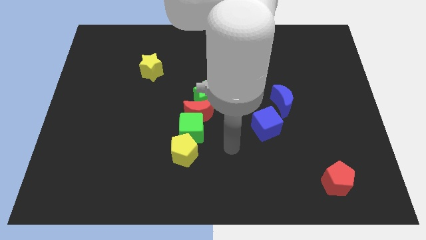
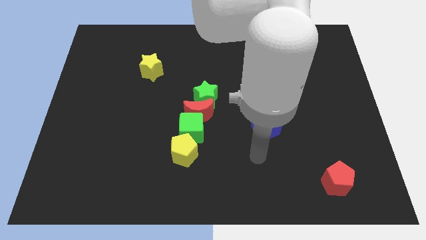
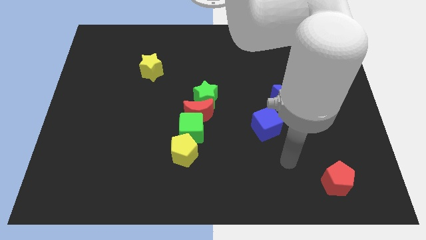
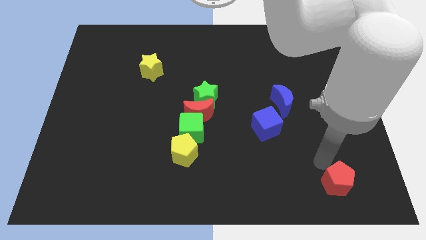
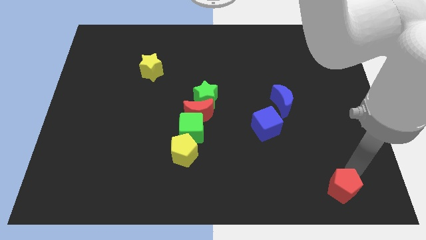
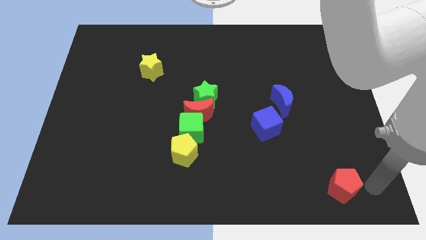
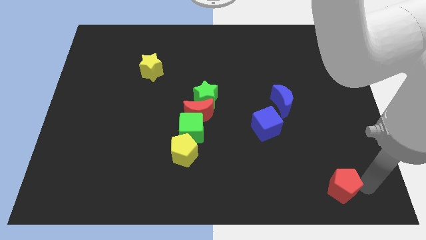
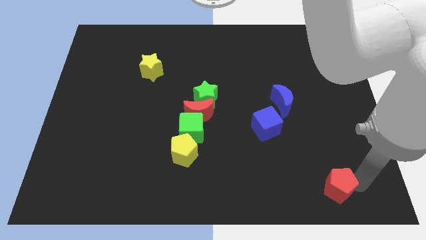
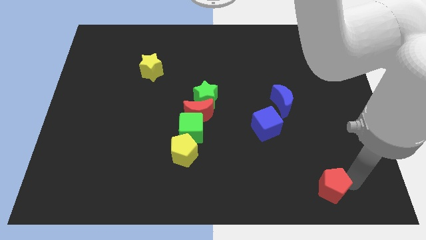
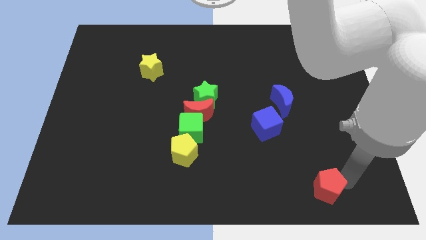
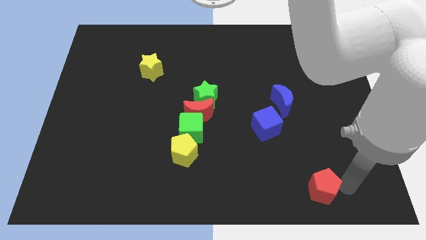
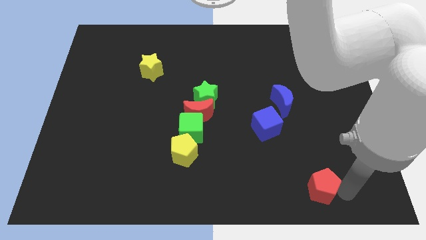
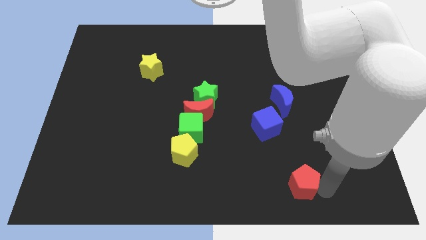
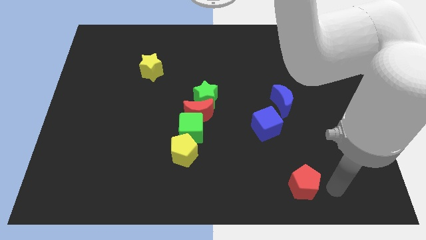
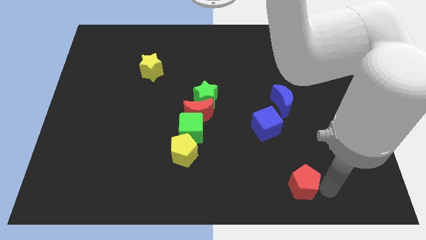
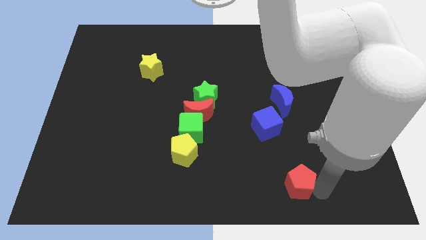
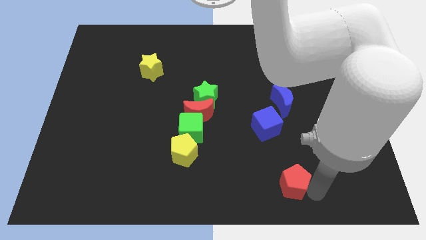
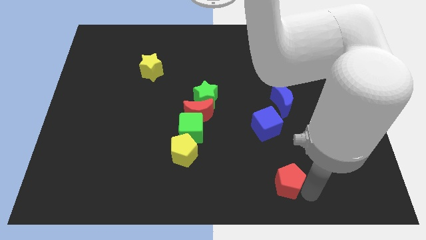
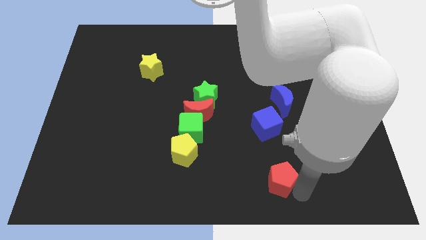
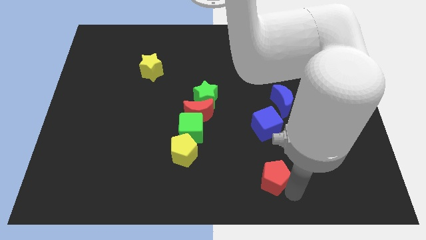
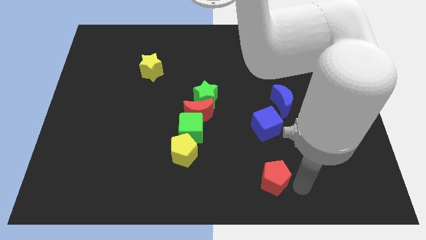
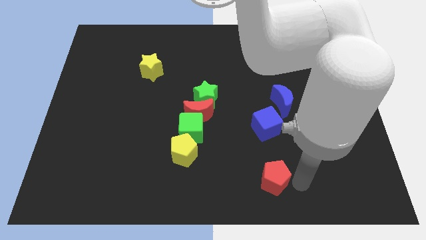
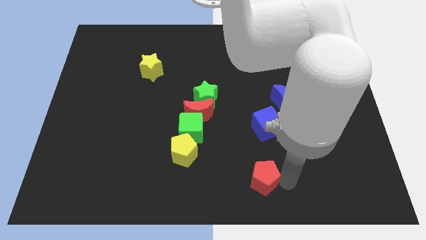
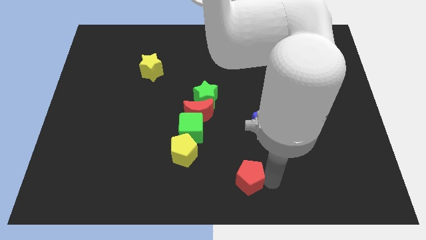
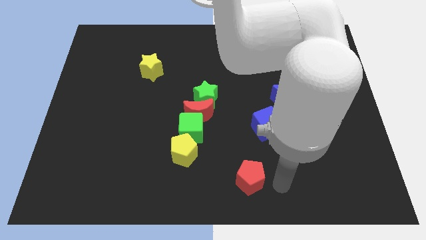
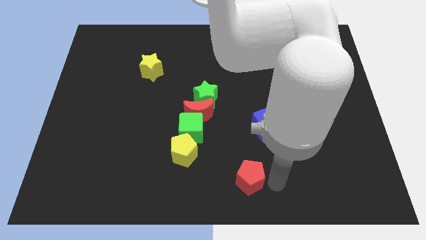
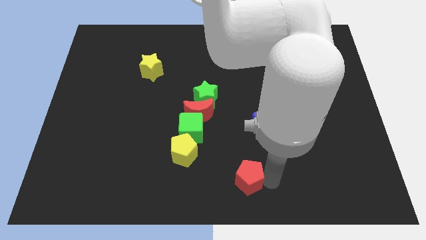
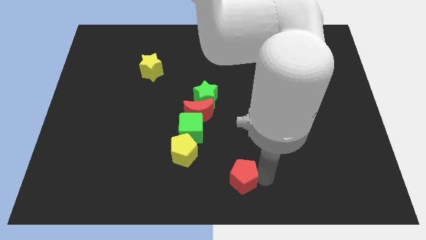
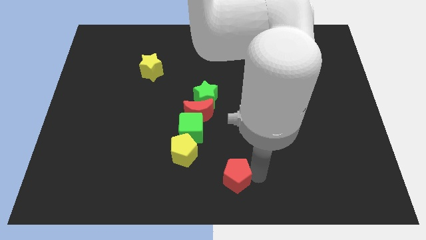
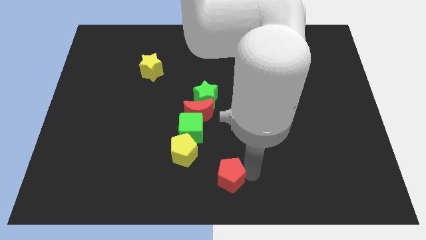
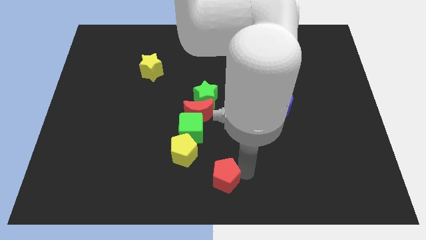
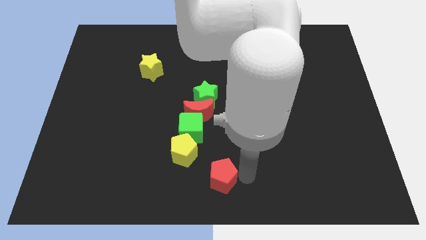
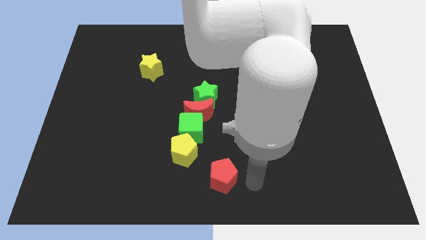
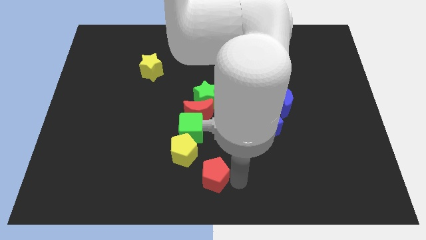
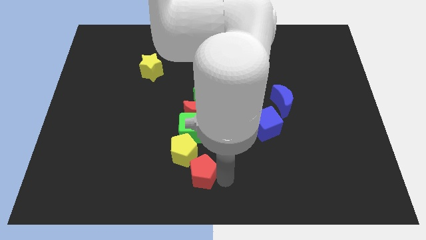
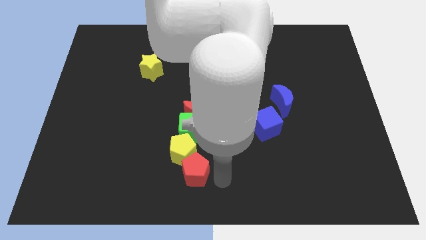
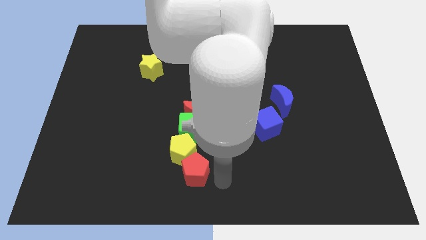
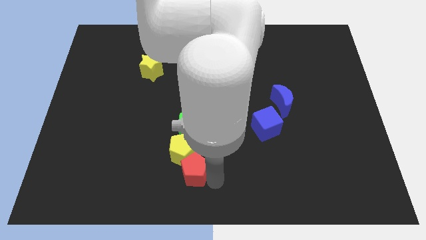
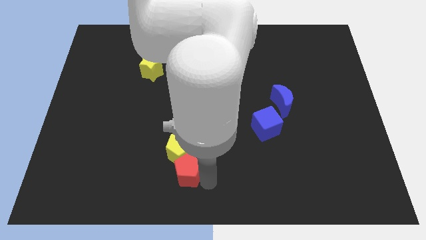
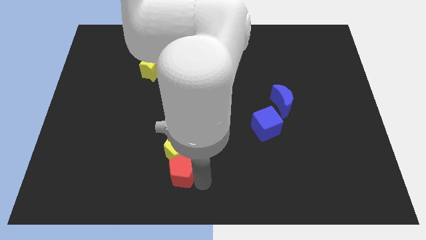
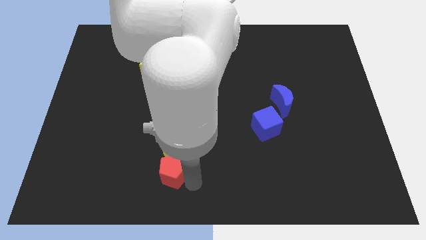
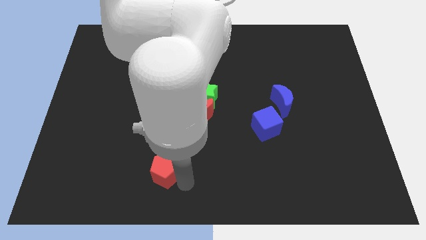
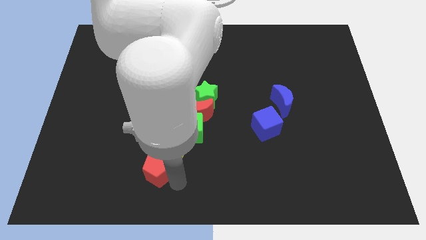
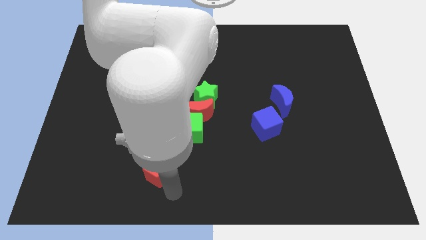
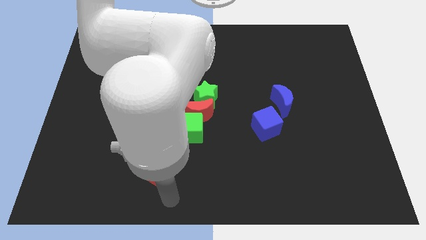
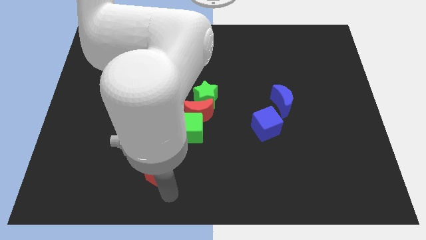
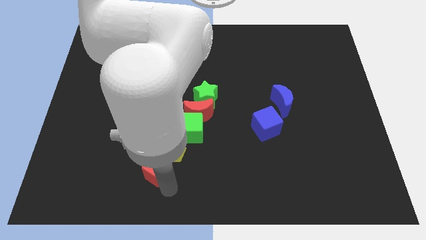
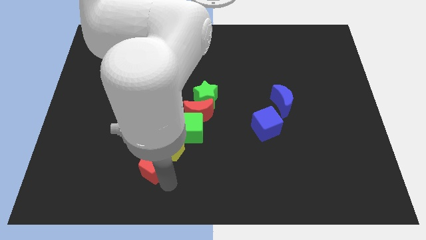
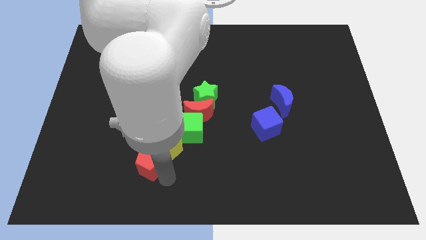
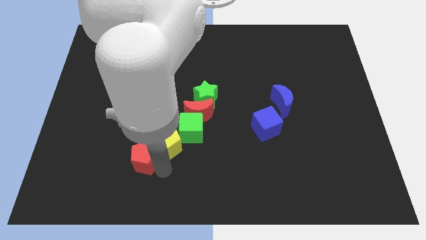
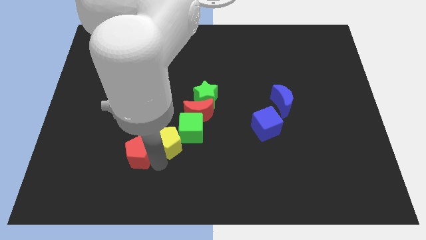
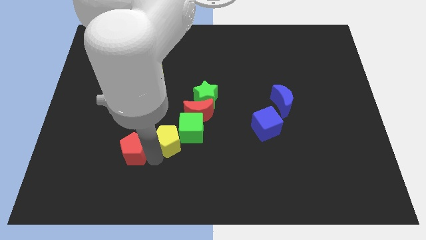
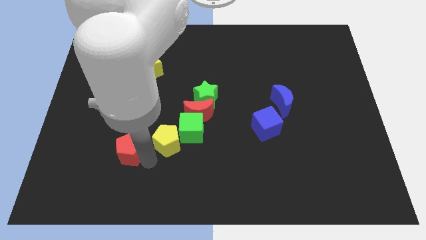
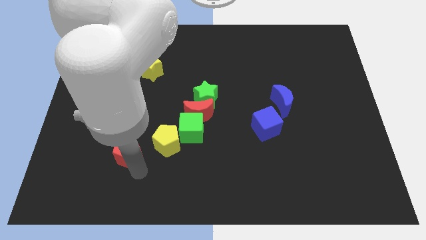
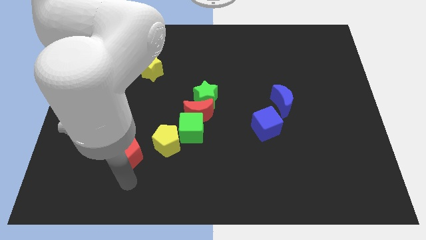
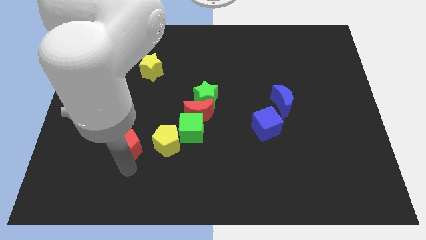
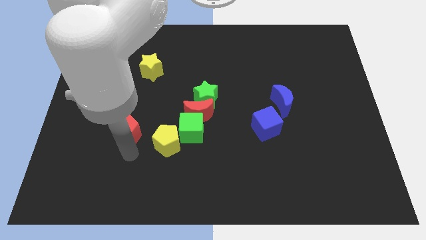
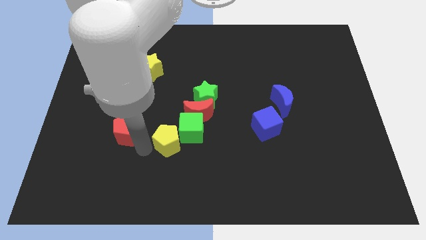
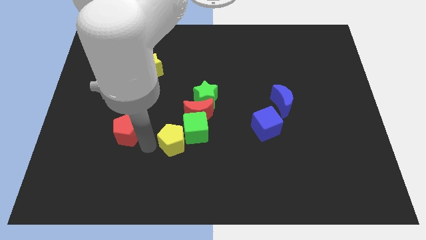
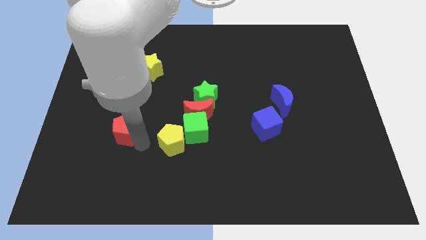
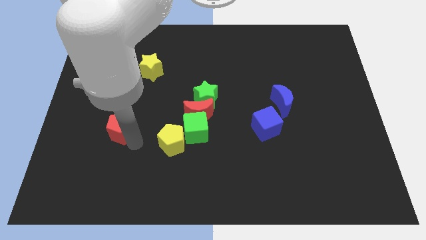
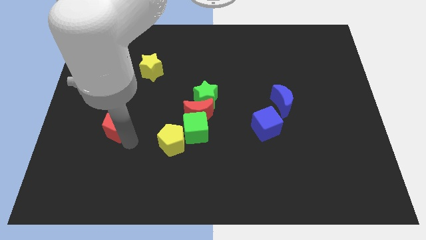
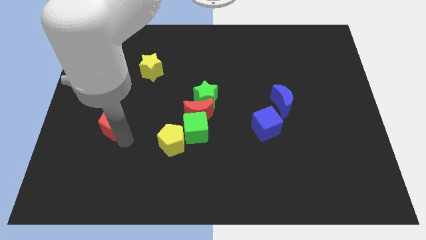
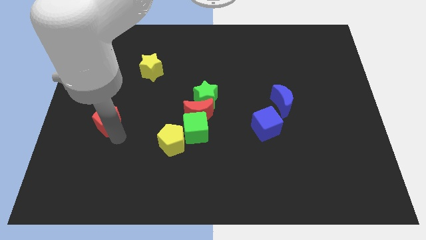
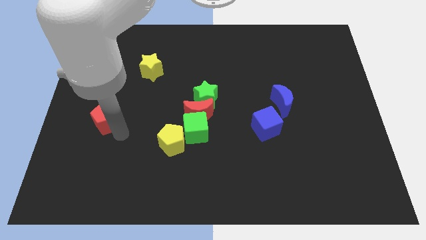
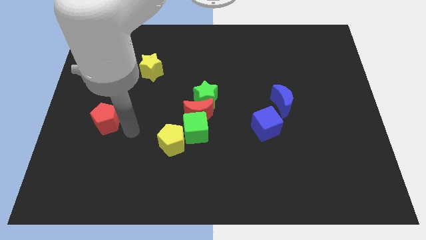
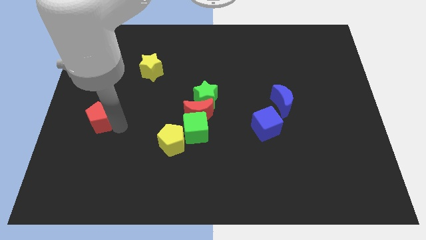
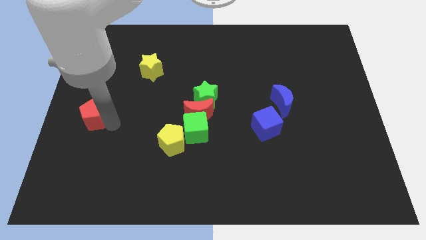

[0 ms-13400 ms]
put the red pentagon to the left side of the board
